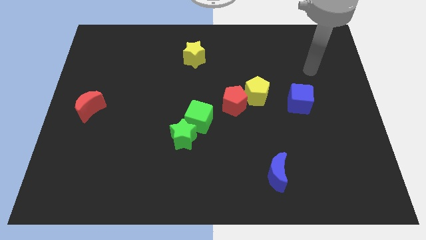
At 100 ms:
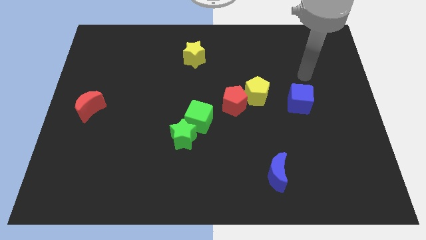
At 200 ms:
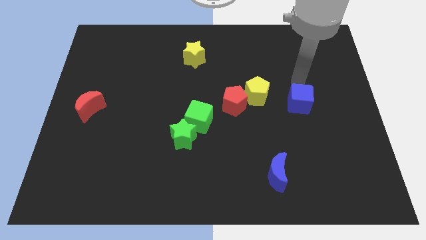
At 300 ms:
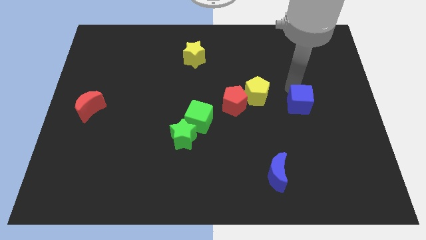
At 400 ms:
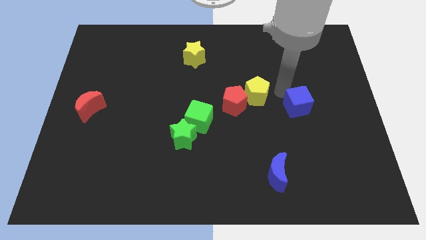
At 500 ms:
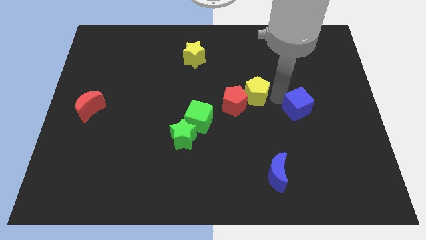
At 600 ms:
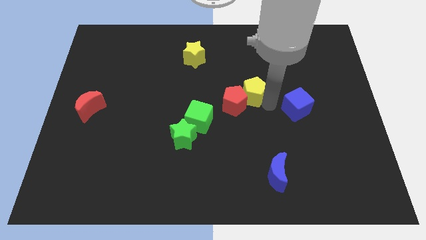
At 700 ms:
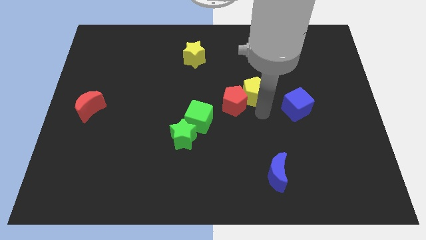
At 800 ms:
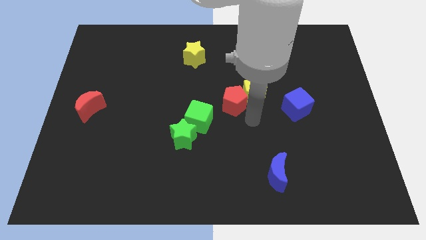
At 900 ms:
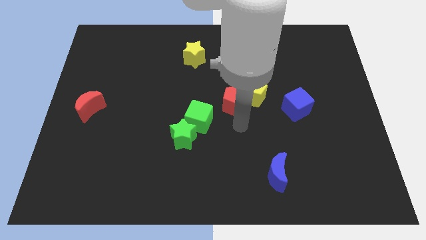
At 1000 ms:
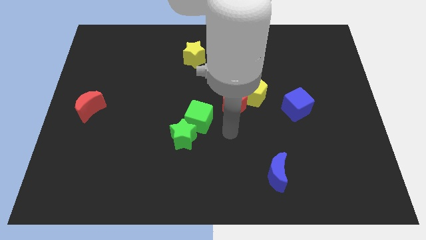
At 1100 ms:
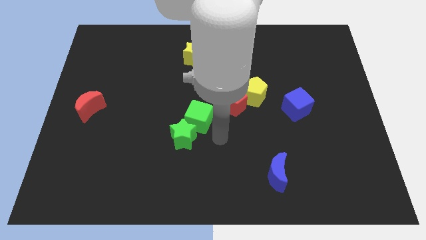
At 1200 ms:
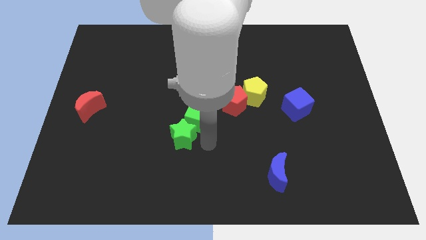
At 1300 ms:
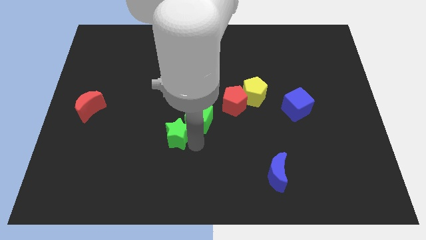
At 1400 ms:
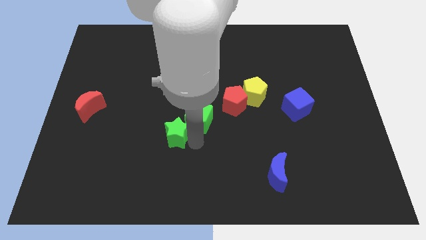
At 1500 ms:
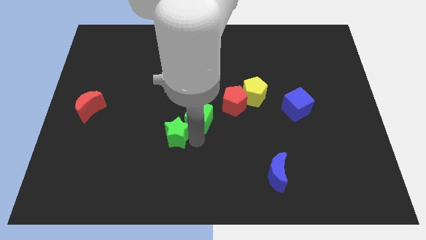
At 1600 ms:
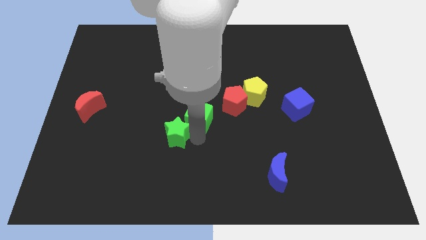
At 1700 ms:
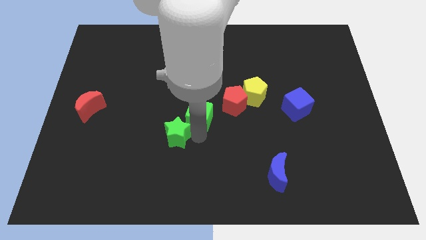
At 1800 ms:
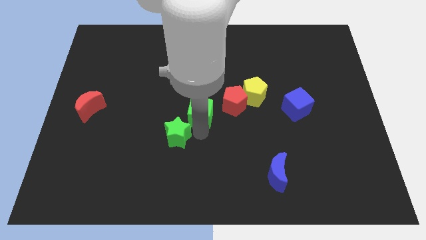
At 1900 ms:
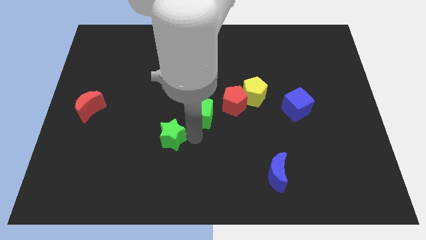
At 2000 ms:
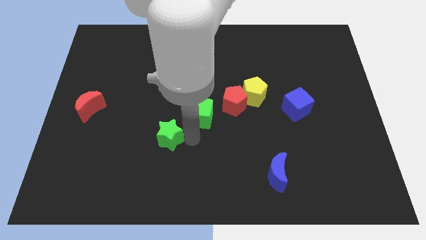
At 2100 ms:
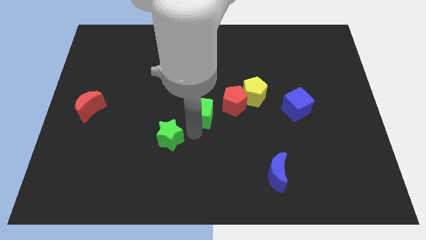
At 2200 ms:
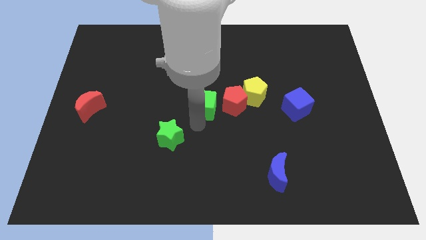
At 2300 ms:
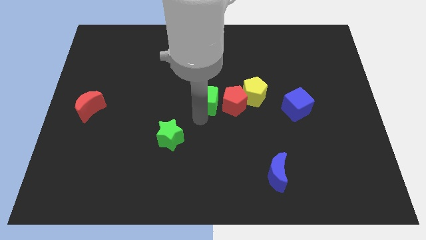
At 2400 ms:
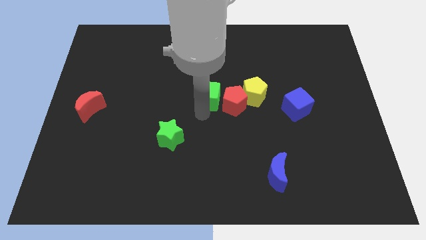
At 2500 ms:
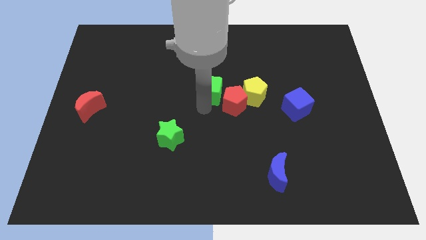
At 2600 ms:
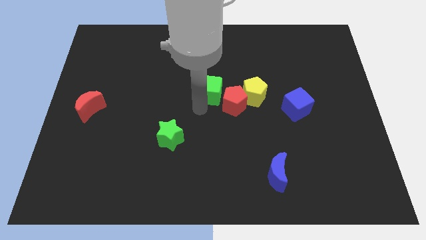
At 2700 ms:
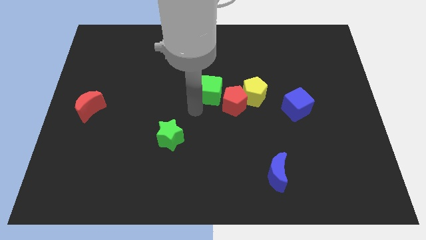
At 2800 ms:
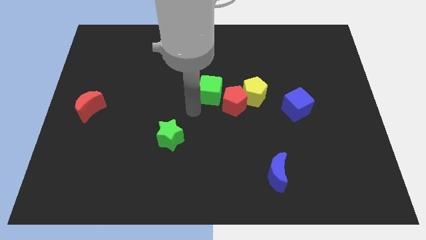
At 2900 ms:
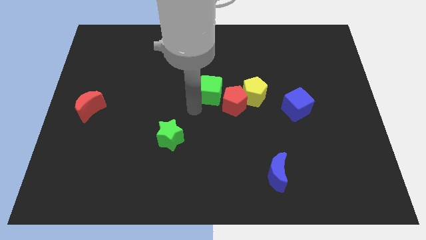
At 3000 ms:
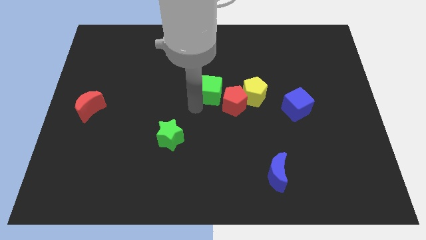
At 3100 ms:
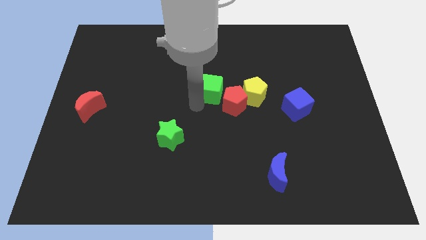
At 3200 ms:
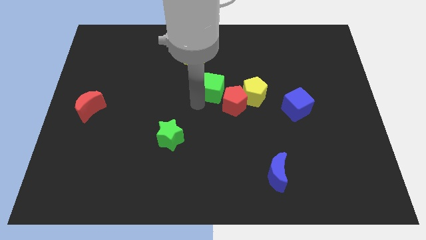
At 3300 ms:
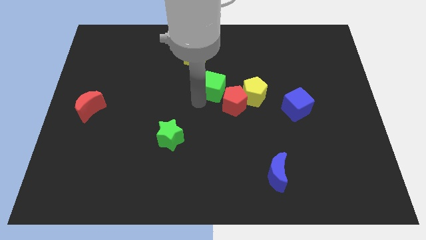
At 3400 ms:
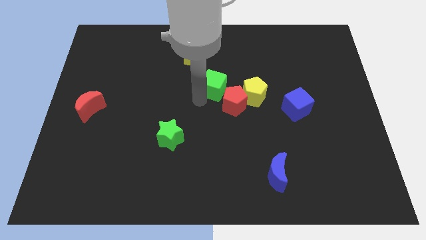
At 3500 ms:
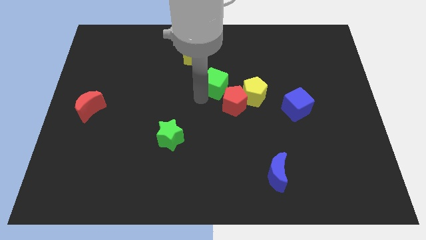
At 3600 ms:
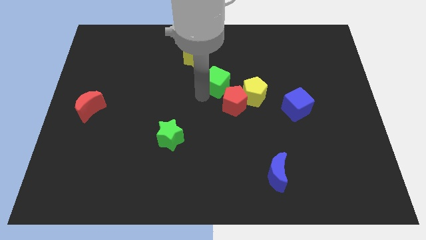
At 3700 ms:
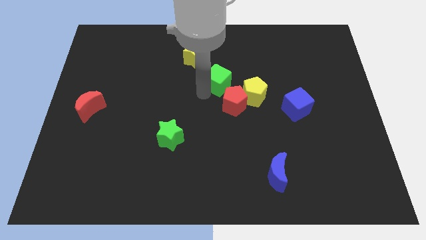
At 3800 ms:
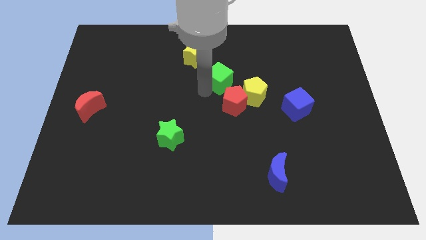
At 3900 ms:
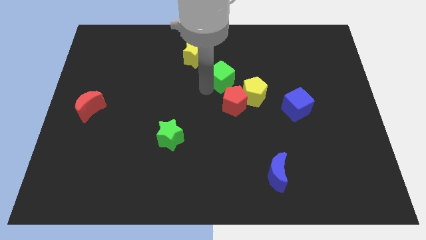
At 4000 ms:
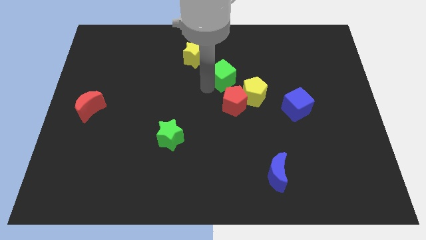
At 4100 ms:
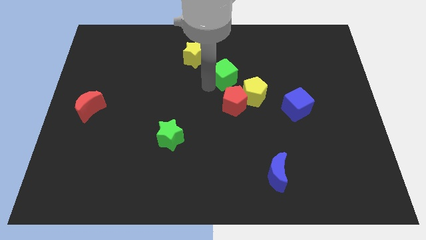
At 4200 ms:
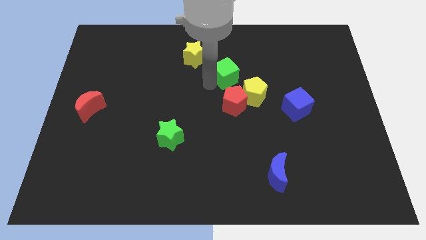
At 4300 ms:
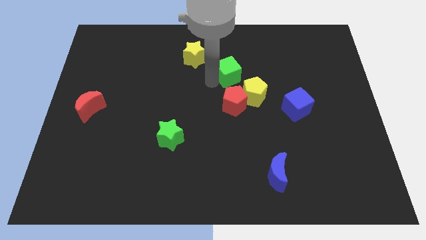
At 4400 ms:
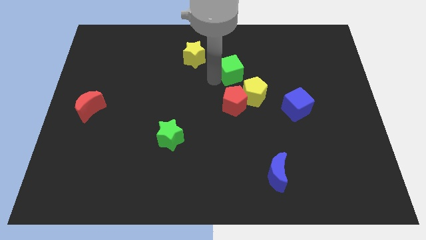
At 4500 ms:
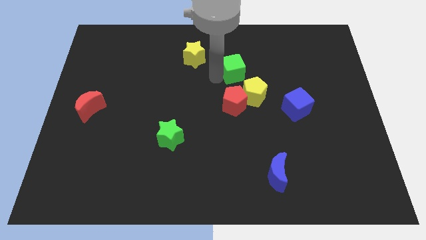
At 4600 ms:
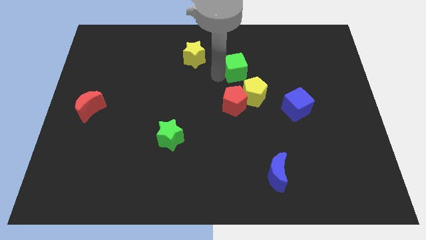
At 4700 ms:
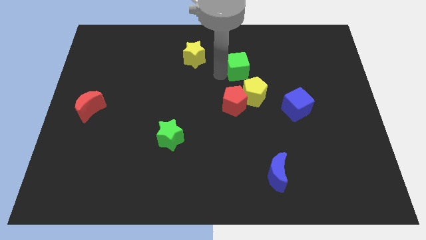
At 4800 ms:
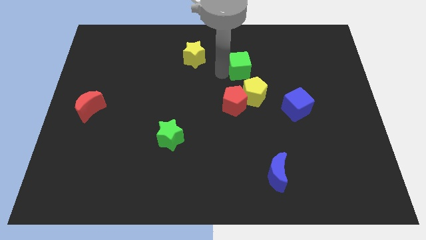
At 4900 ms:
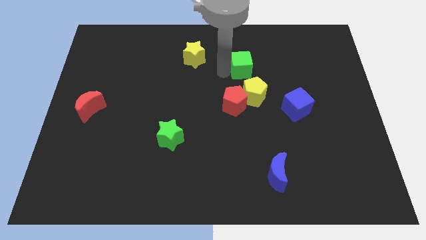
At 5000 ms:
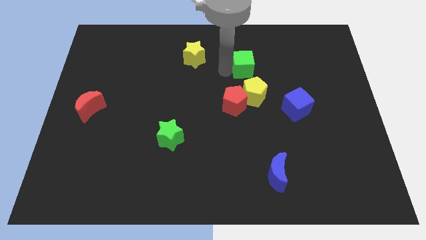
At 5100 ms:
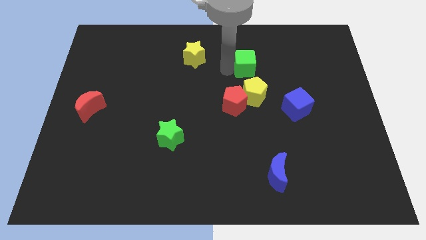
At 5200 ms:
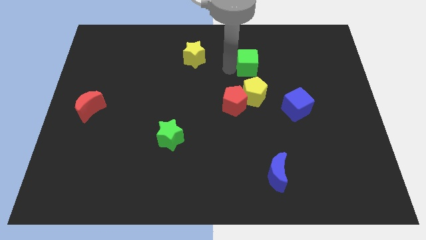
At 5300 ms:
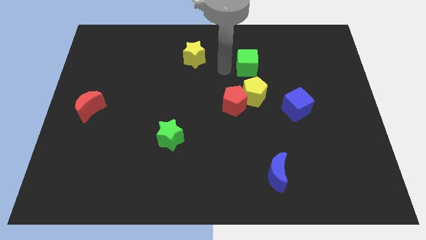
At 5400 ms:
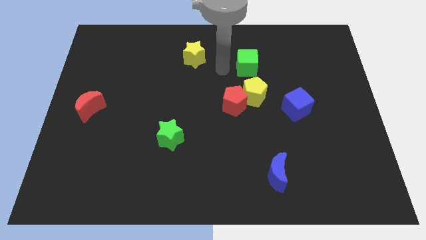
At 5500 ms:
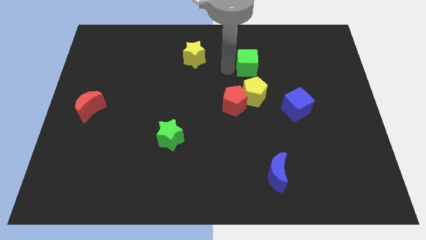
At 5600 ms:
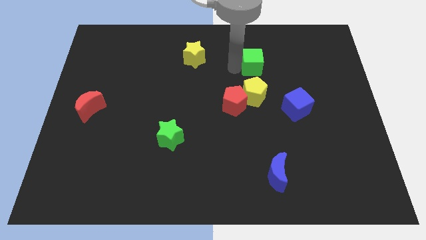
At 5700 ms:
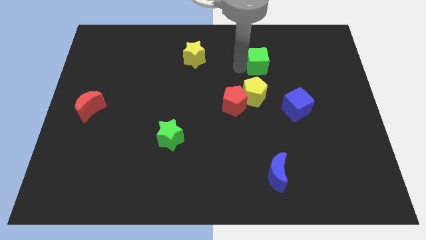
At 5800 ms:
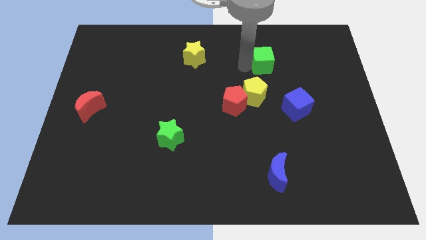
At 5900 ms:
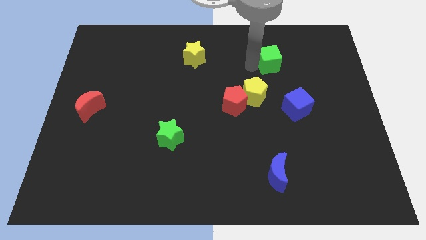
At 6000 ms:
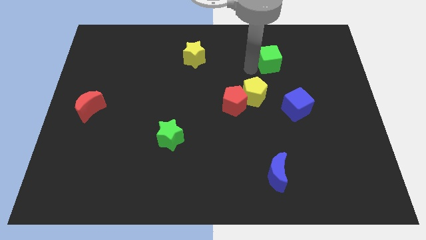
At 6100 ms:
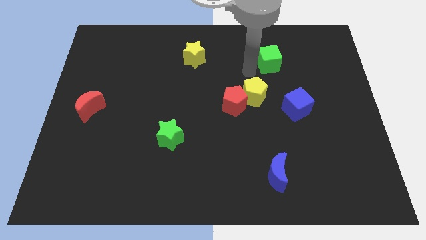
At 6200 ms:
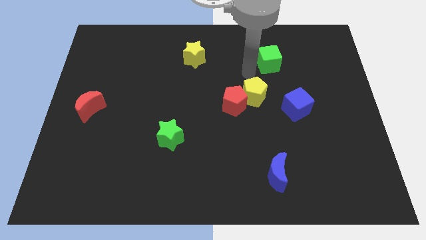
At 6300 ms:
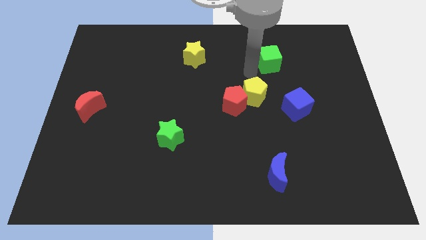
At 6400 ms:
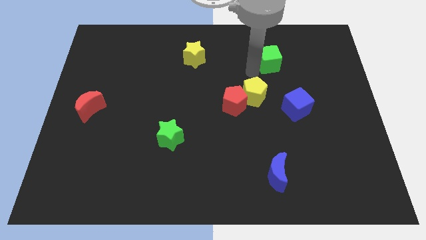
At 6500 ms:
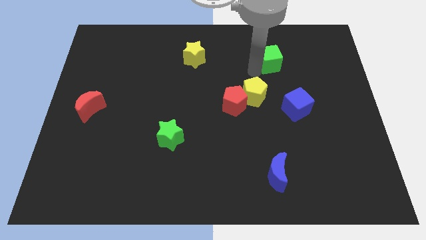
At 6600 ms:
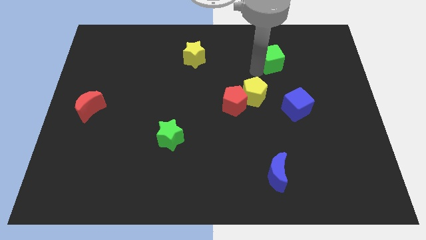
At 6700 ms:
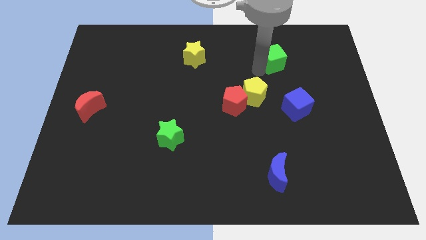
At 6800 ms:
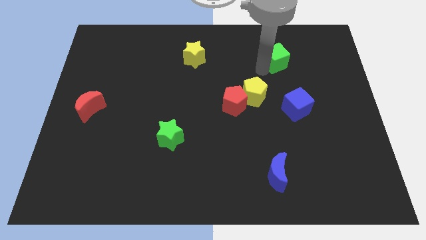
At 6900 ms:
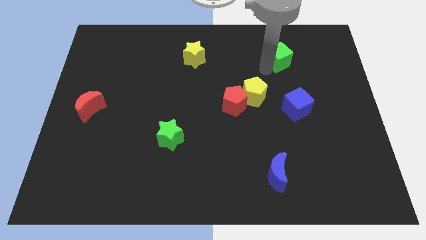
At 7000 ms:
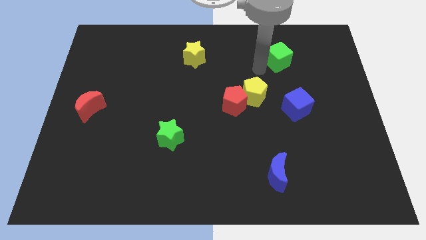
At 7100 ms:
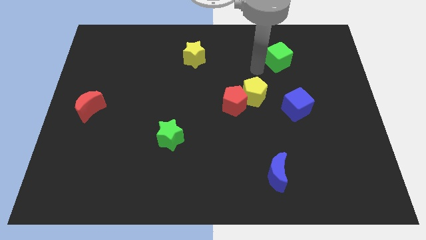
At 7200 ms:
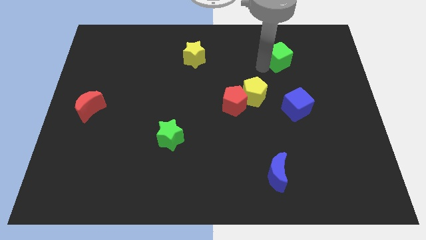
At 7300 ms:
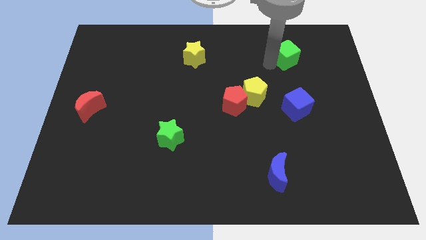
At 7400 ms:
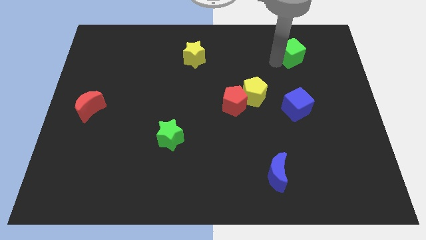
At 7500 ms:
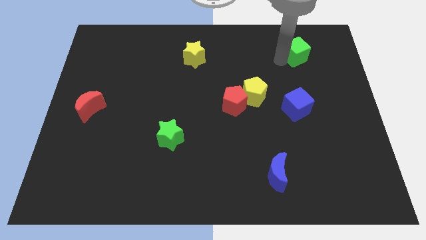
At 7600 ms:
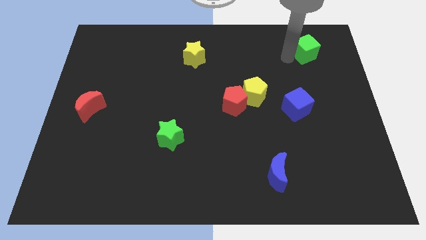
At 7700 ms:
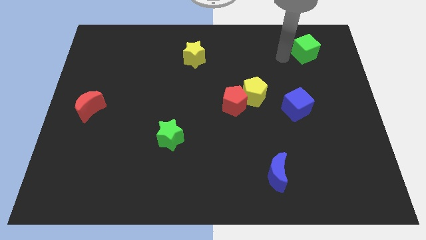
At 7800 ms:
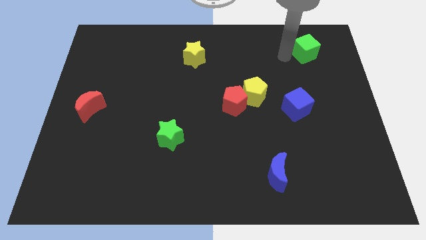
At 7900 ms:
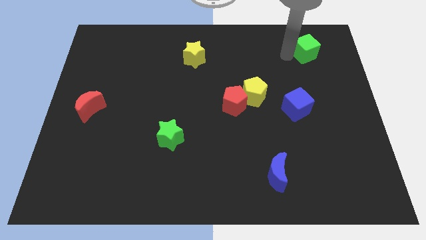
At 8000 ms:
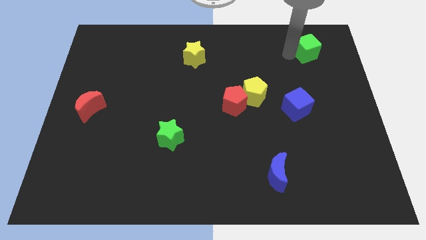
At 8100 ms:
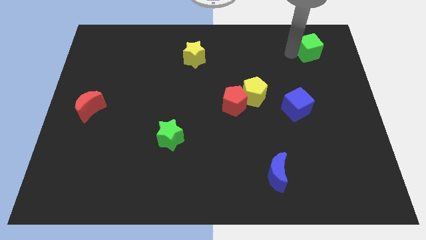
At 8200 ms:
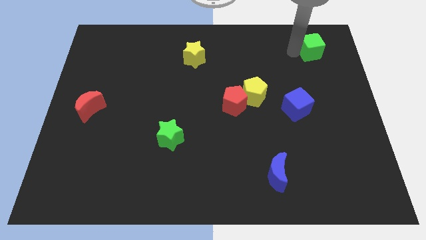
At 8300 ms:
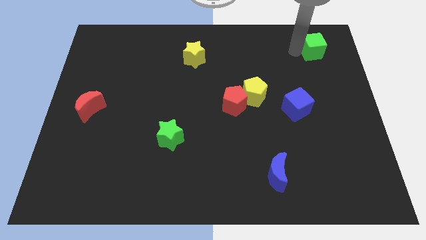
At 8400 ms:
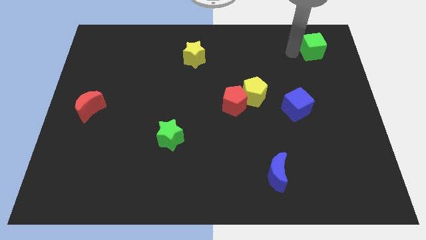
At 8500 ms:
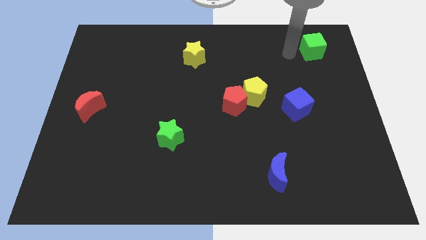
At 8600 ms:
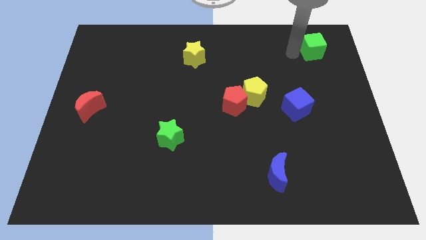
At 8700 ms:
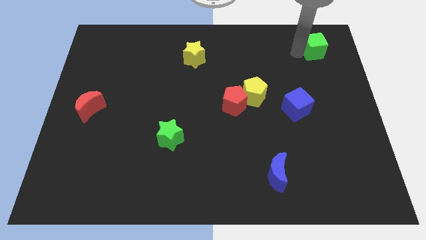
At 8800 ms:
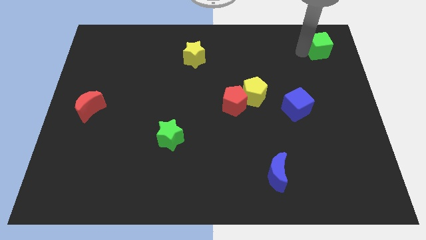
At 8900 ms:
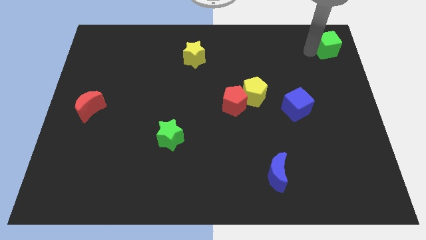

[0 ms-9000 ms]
put the green cube to the top right
